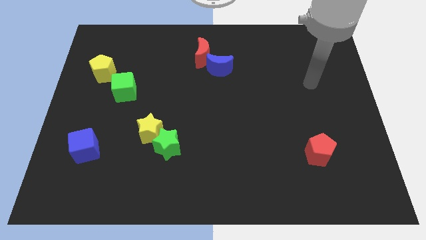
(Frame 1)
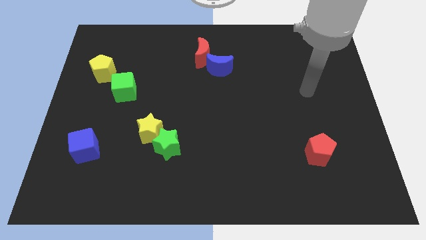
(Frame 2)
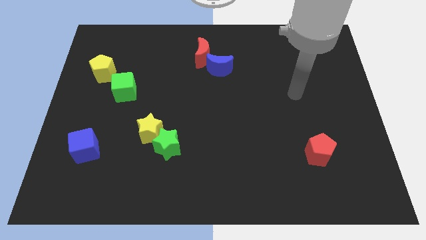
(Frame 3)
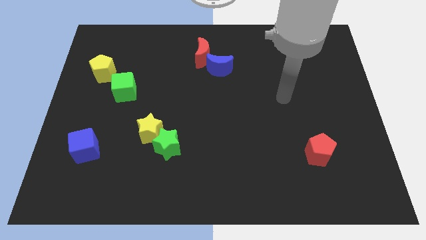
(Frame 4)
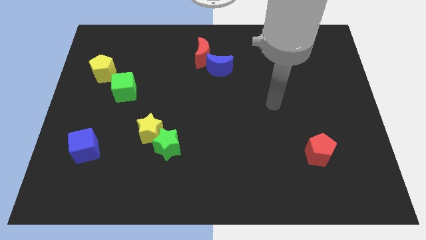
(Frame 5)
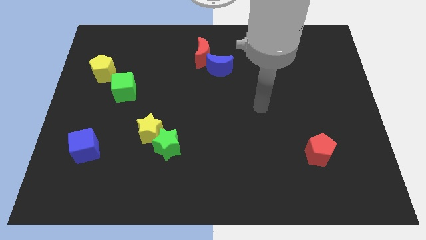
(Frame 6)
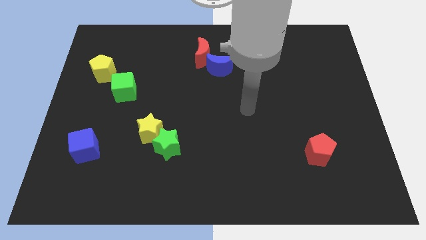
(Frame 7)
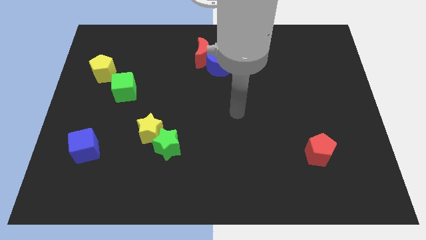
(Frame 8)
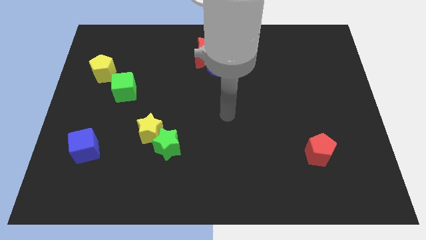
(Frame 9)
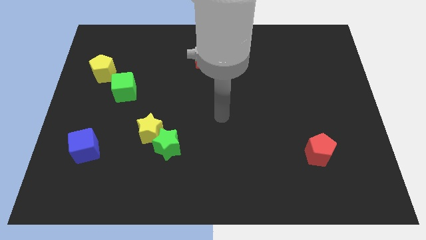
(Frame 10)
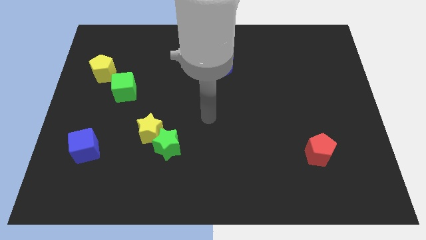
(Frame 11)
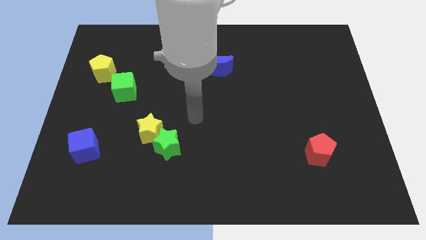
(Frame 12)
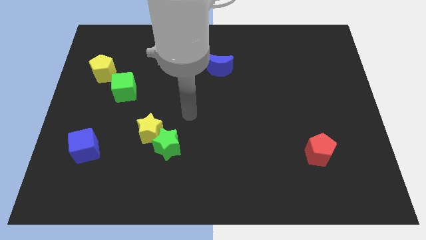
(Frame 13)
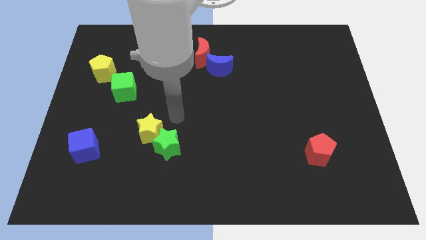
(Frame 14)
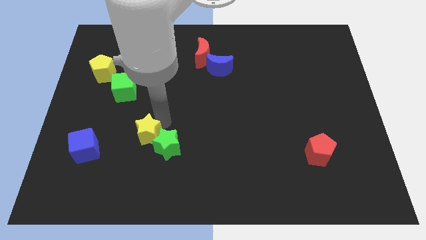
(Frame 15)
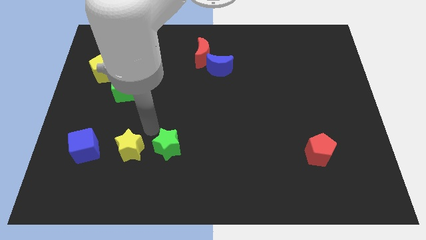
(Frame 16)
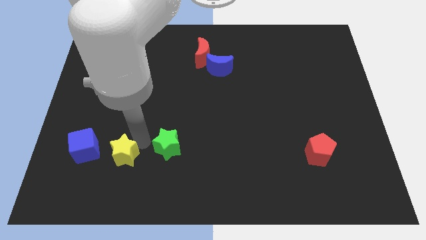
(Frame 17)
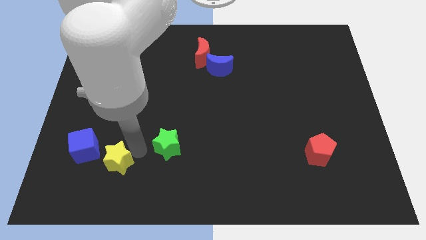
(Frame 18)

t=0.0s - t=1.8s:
move the green star away from the yellow star

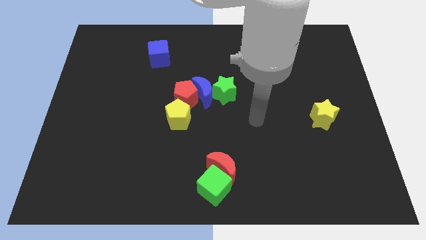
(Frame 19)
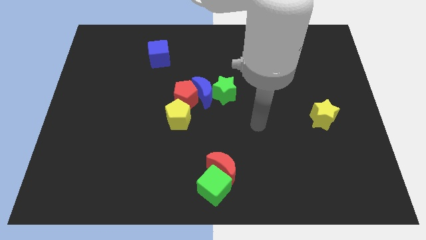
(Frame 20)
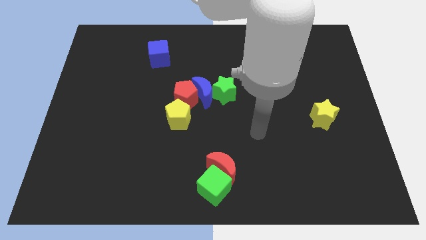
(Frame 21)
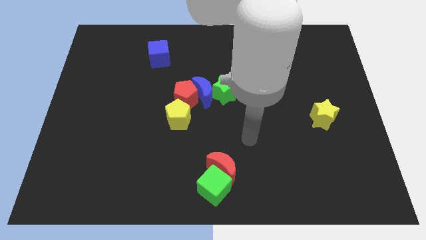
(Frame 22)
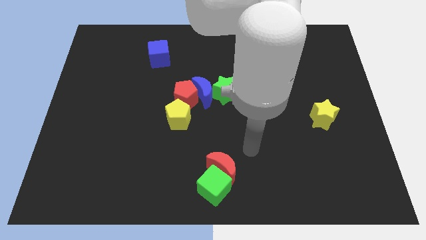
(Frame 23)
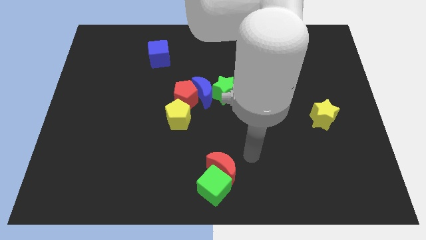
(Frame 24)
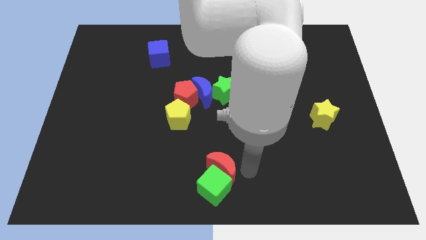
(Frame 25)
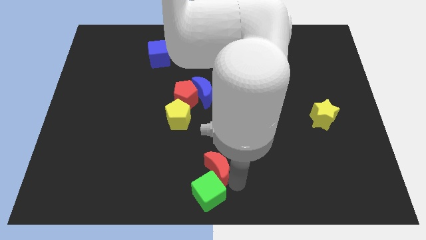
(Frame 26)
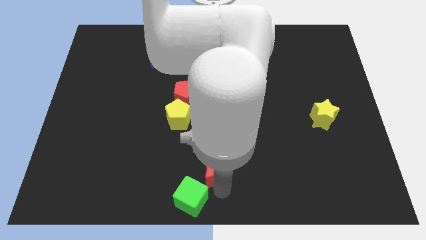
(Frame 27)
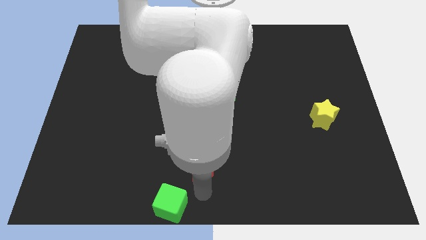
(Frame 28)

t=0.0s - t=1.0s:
pull the red moon apart from the green cube

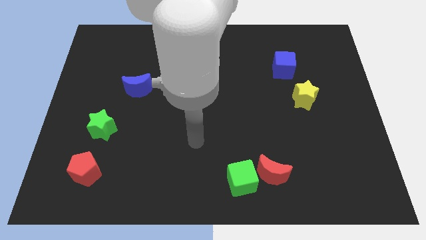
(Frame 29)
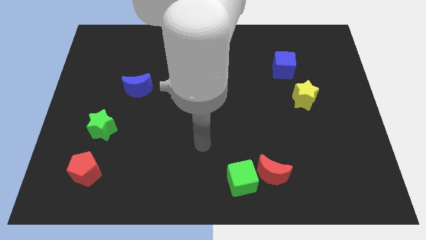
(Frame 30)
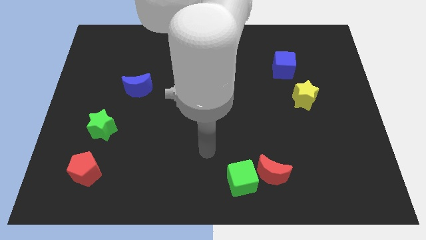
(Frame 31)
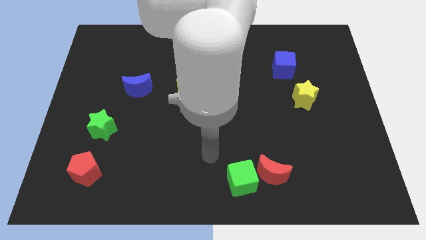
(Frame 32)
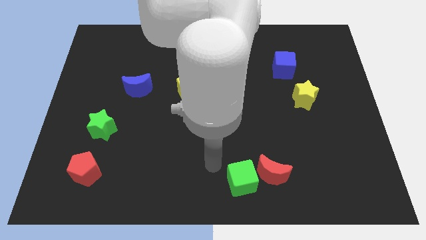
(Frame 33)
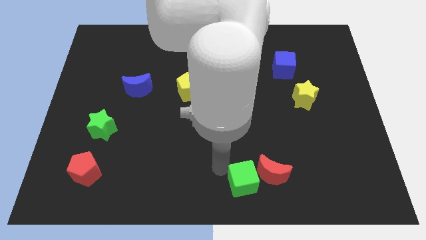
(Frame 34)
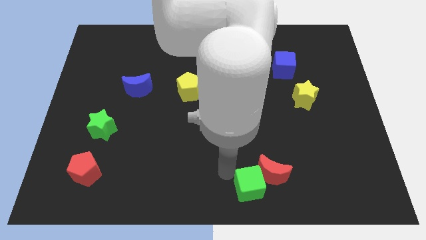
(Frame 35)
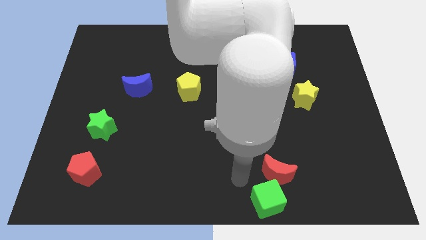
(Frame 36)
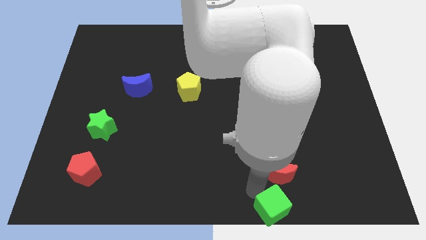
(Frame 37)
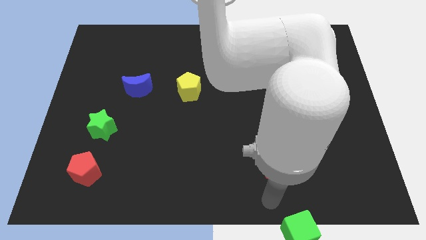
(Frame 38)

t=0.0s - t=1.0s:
move the red moon away from the green cube

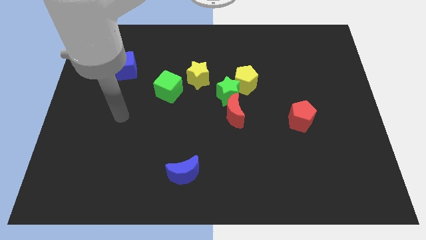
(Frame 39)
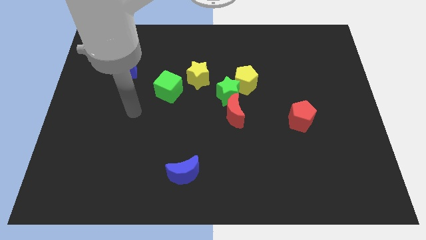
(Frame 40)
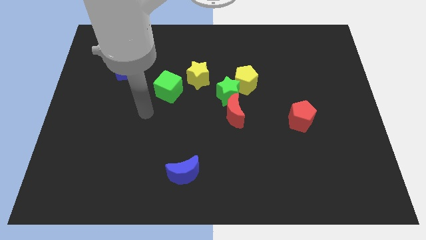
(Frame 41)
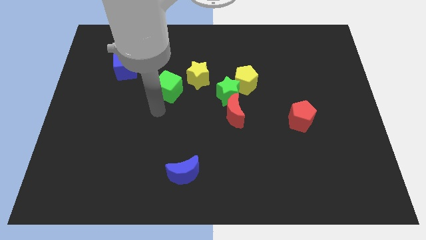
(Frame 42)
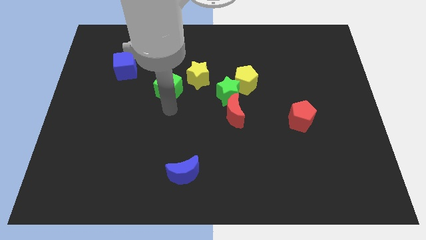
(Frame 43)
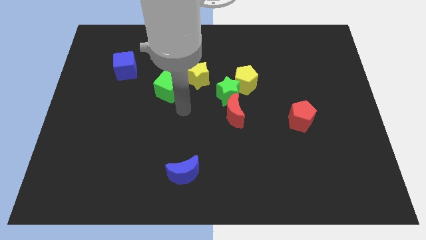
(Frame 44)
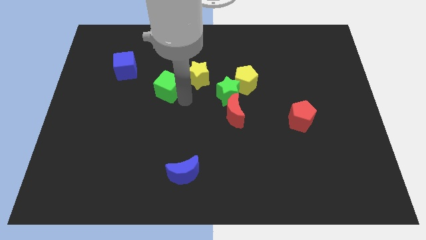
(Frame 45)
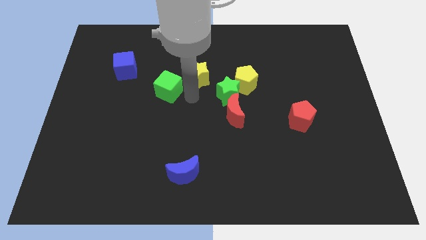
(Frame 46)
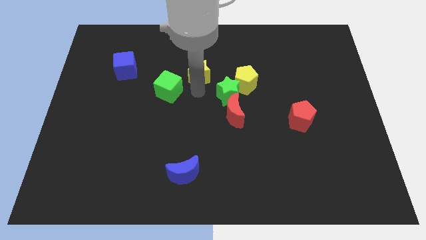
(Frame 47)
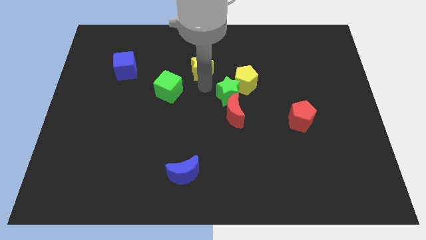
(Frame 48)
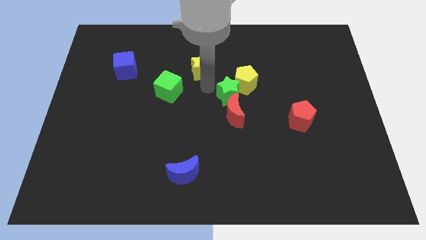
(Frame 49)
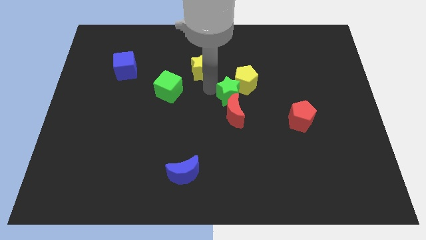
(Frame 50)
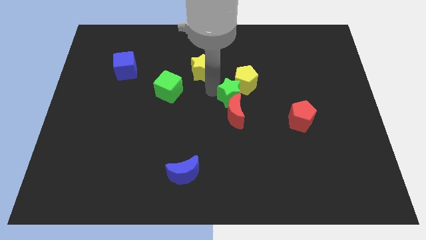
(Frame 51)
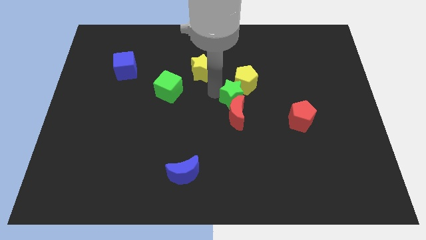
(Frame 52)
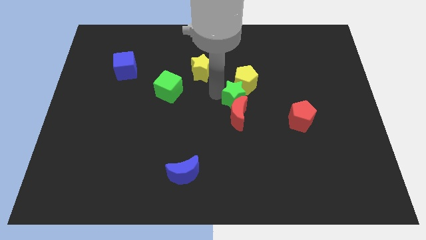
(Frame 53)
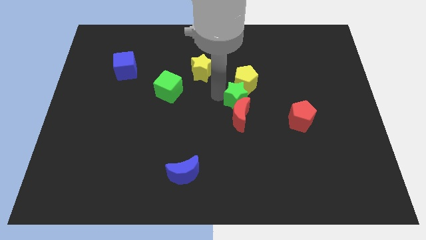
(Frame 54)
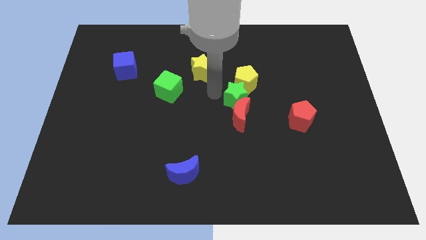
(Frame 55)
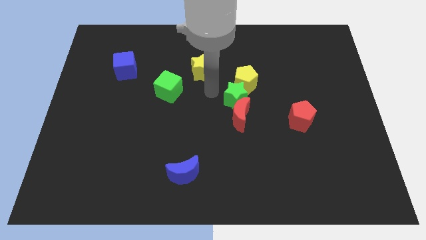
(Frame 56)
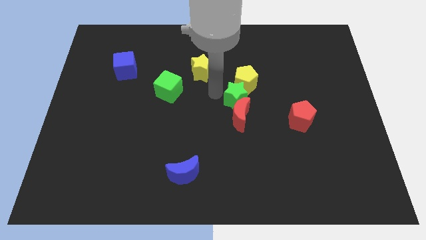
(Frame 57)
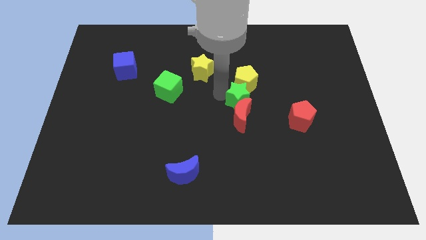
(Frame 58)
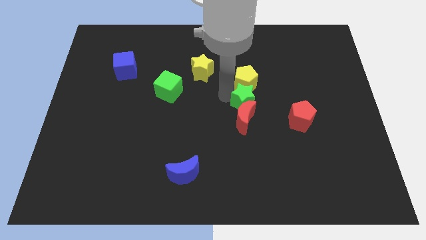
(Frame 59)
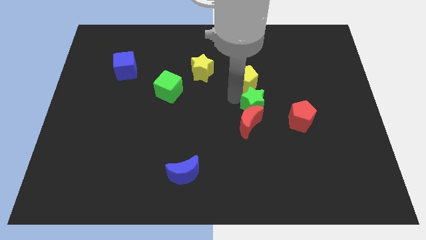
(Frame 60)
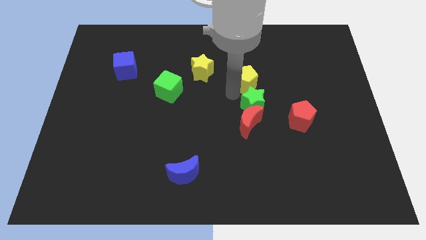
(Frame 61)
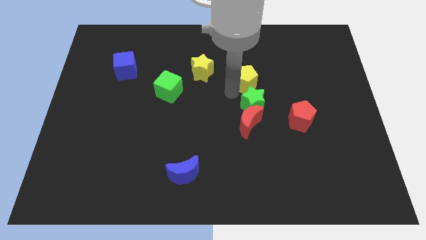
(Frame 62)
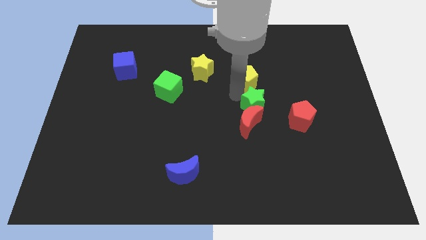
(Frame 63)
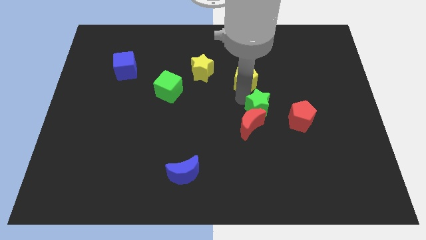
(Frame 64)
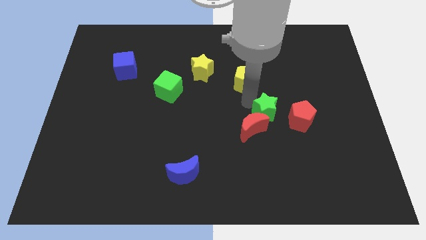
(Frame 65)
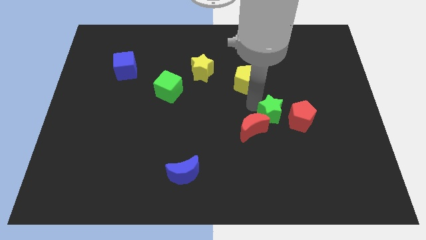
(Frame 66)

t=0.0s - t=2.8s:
separate the green star from the yellow pentagon, red moon, and yellow star

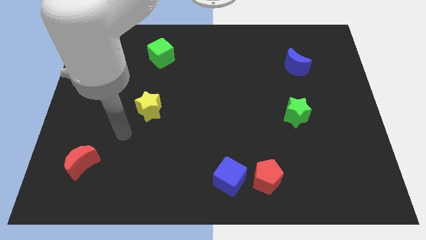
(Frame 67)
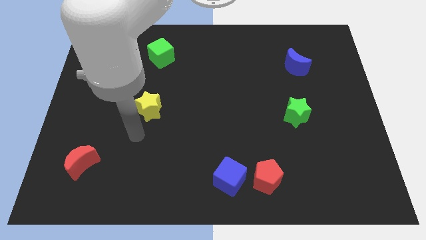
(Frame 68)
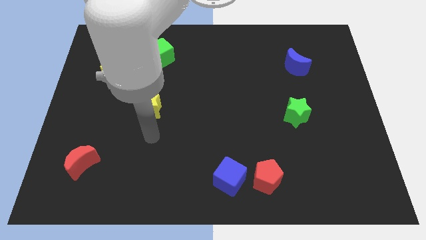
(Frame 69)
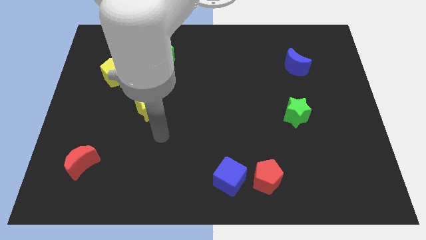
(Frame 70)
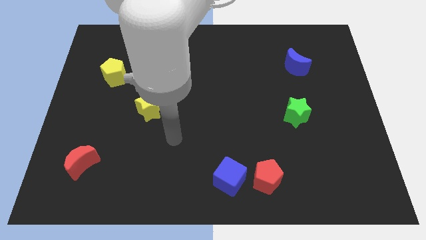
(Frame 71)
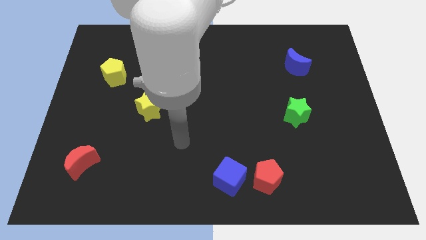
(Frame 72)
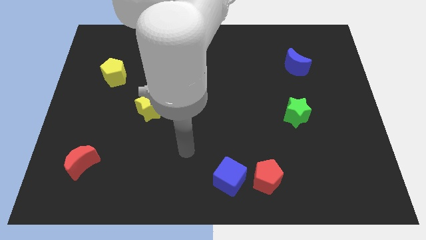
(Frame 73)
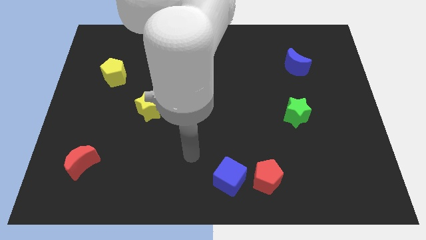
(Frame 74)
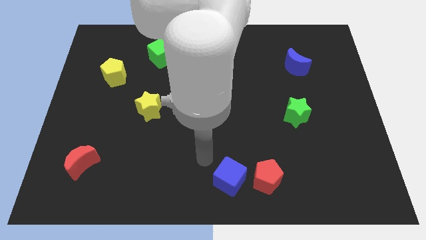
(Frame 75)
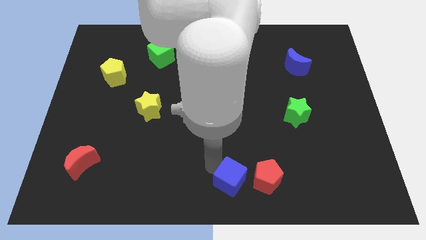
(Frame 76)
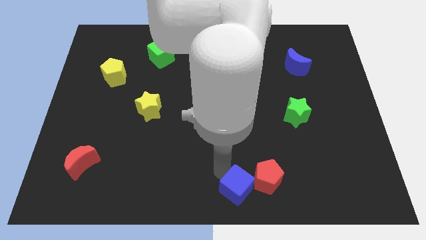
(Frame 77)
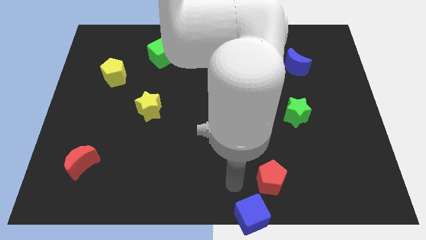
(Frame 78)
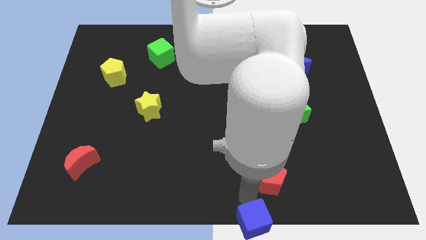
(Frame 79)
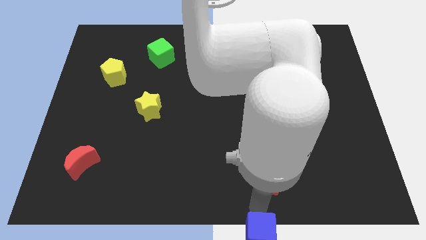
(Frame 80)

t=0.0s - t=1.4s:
separate the red pentagon from the blue cube

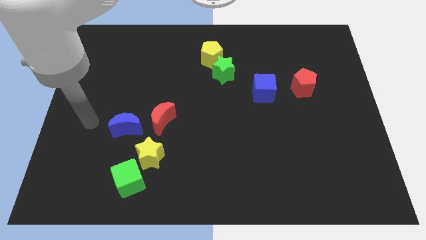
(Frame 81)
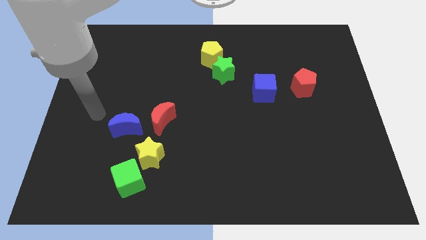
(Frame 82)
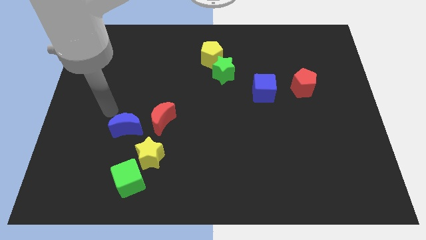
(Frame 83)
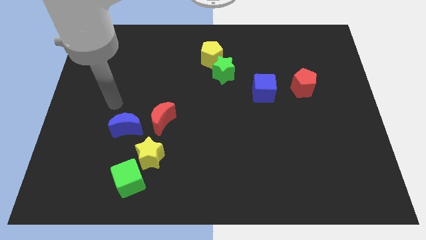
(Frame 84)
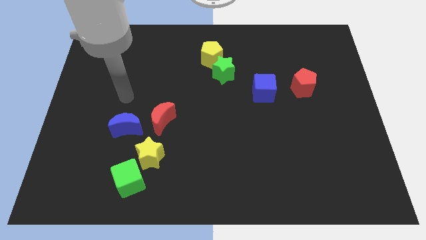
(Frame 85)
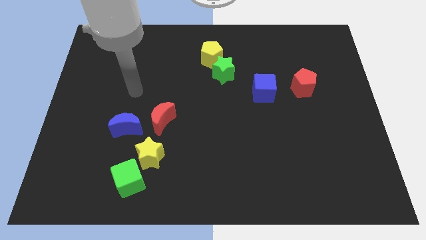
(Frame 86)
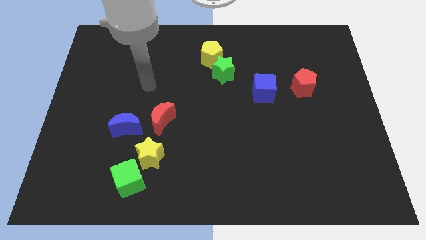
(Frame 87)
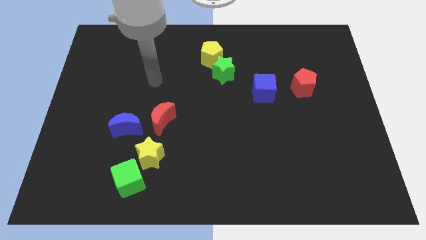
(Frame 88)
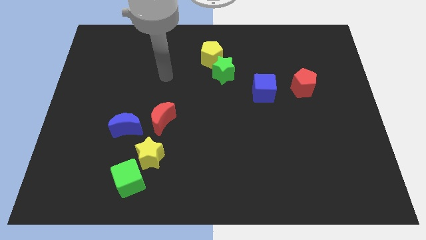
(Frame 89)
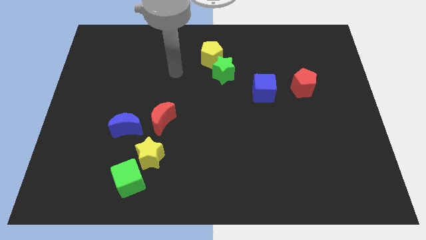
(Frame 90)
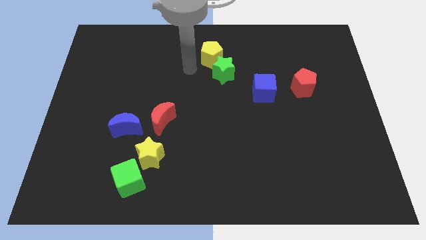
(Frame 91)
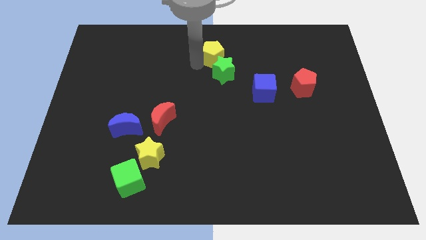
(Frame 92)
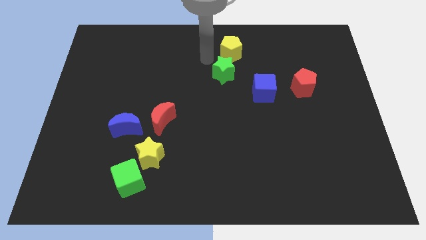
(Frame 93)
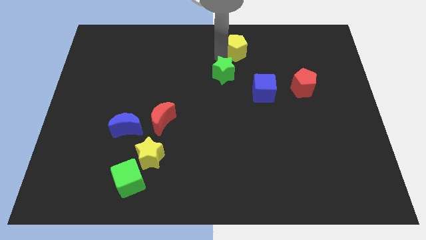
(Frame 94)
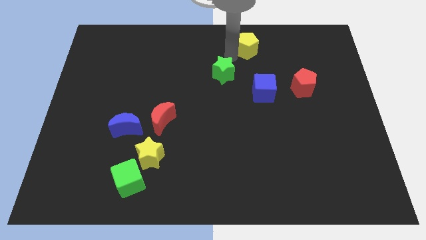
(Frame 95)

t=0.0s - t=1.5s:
move the green star away from the yellow pentagon
